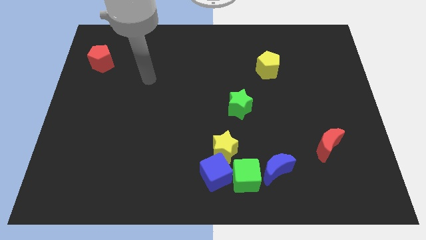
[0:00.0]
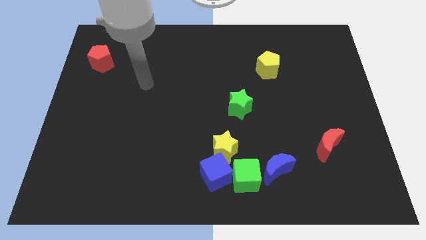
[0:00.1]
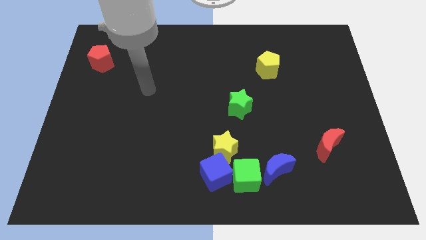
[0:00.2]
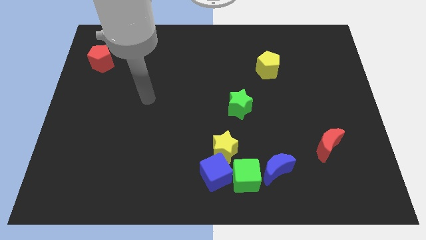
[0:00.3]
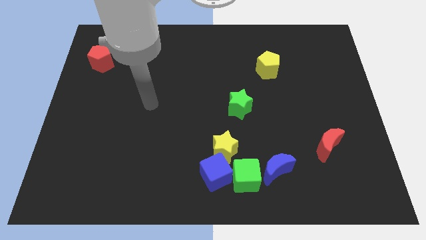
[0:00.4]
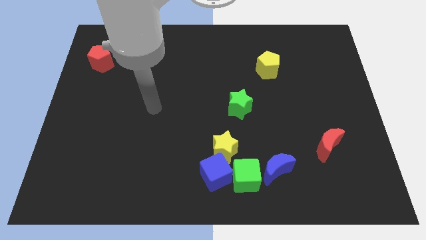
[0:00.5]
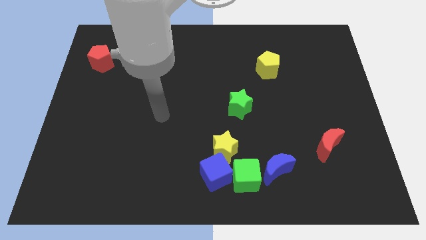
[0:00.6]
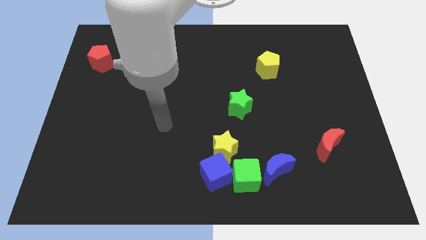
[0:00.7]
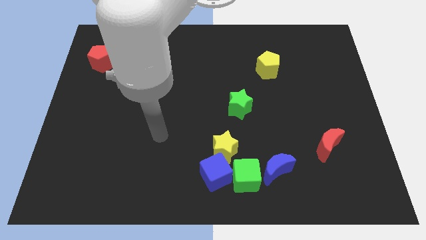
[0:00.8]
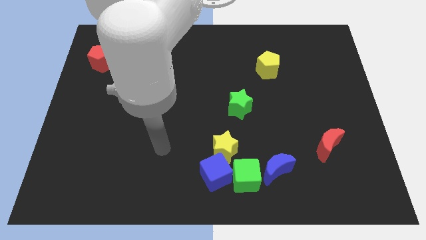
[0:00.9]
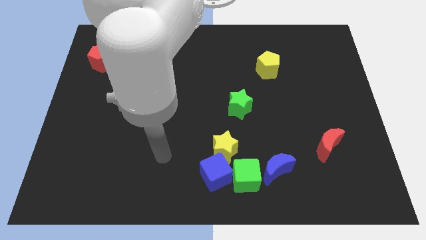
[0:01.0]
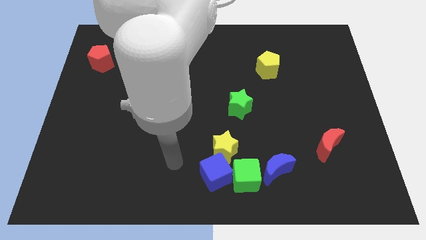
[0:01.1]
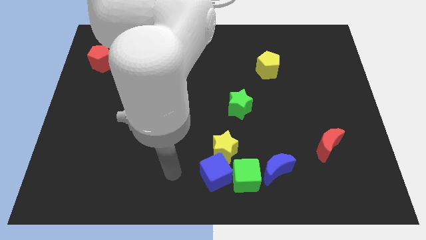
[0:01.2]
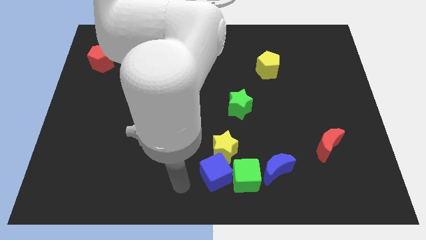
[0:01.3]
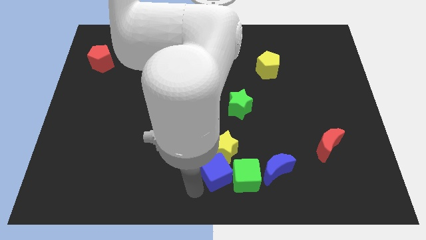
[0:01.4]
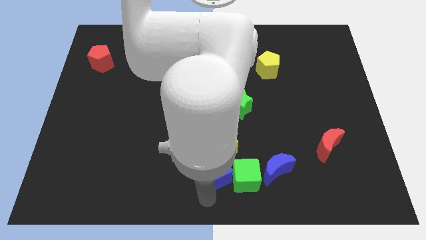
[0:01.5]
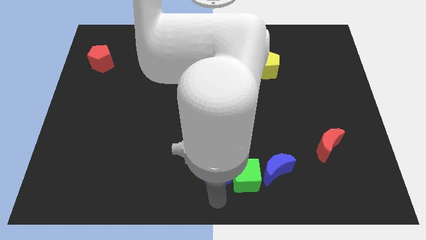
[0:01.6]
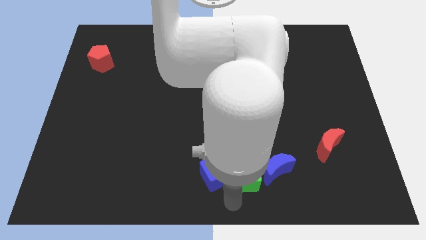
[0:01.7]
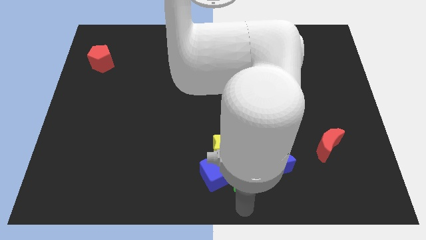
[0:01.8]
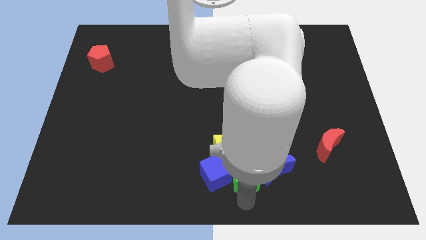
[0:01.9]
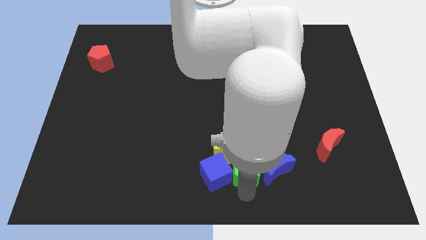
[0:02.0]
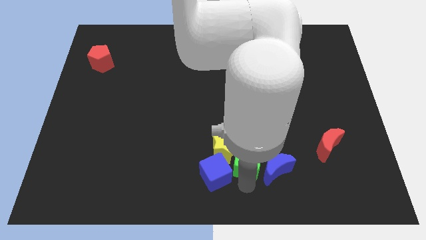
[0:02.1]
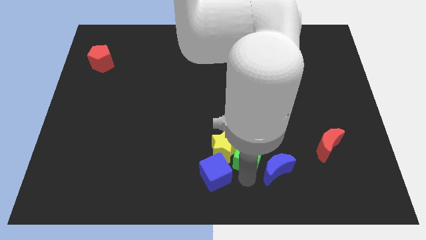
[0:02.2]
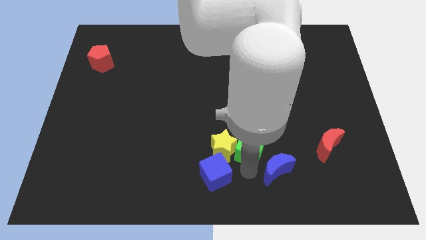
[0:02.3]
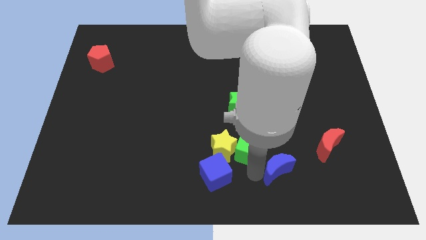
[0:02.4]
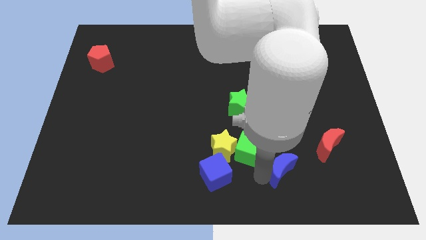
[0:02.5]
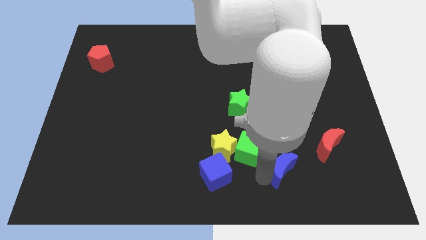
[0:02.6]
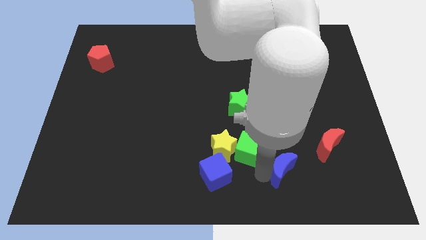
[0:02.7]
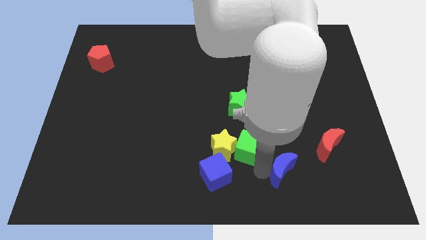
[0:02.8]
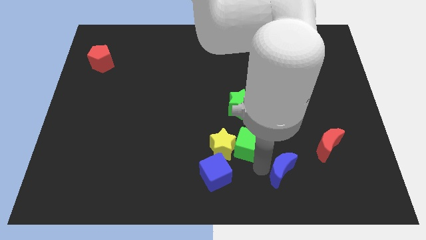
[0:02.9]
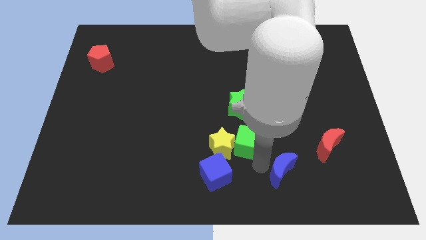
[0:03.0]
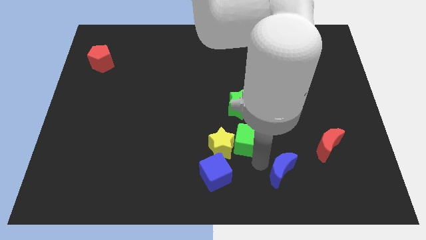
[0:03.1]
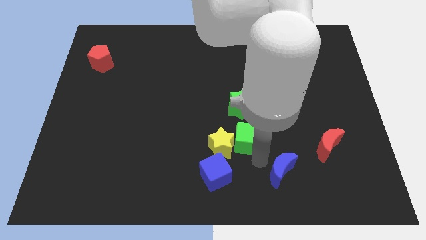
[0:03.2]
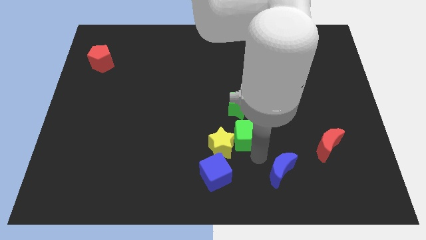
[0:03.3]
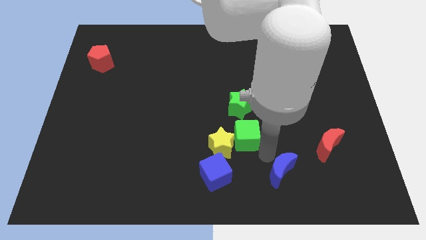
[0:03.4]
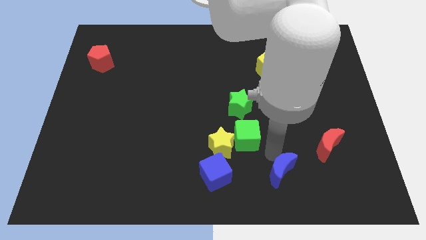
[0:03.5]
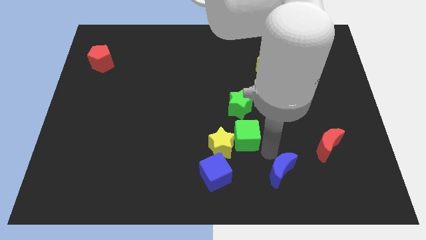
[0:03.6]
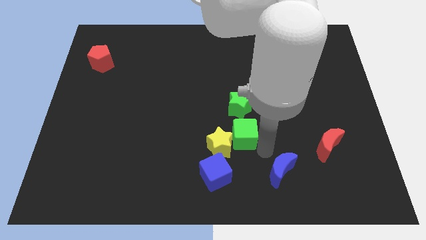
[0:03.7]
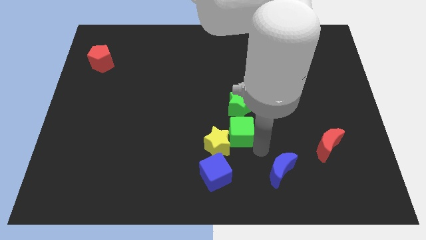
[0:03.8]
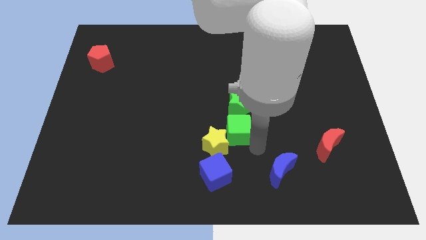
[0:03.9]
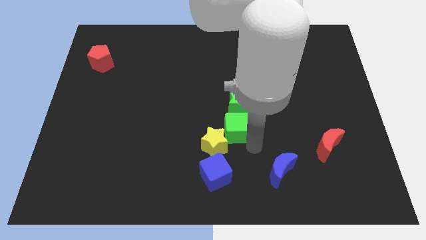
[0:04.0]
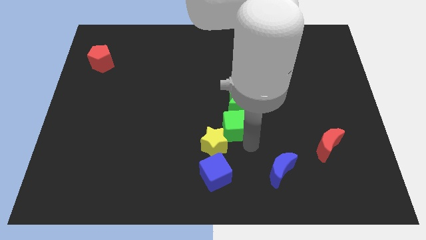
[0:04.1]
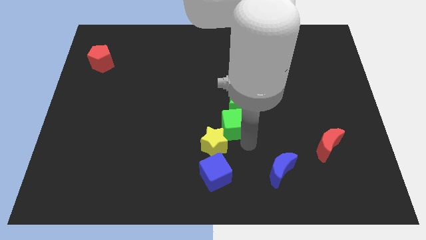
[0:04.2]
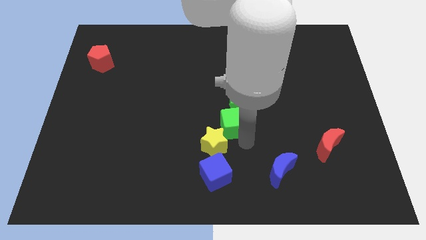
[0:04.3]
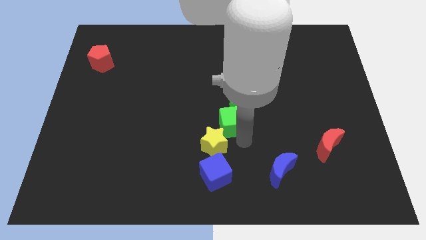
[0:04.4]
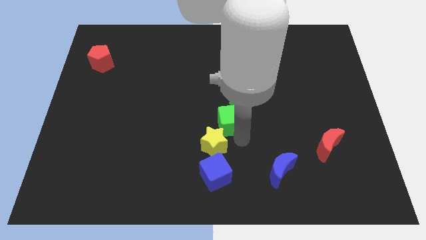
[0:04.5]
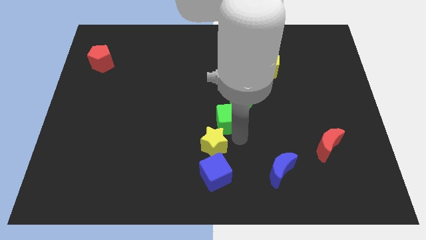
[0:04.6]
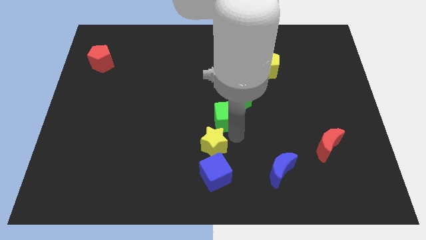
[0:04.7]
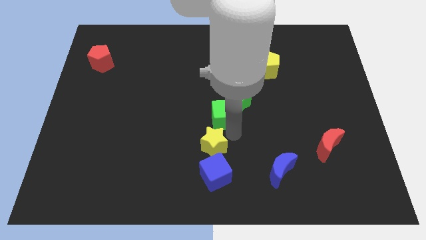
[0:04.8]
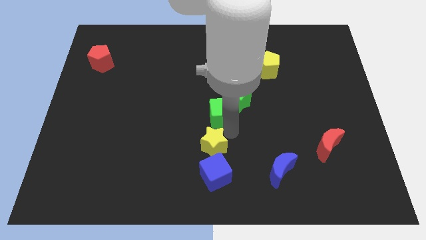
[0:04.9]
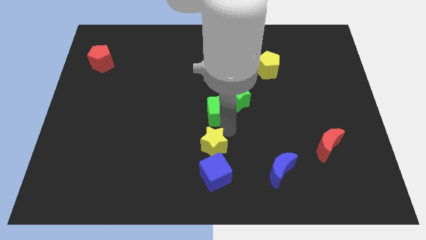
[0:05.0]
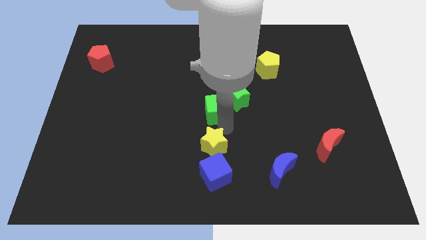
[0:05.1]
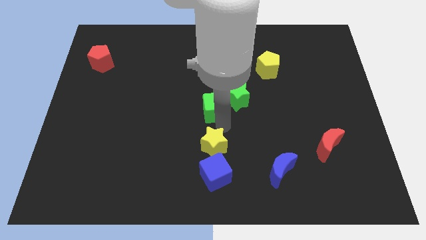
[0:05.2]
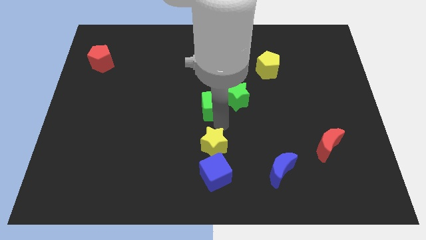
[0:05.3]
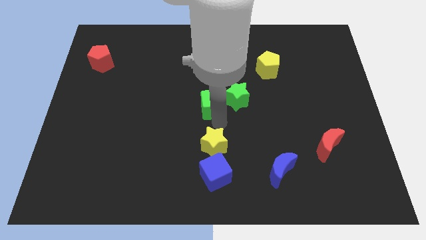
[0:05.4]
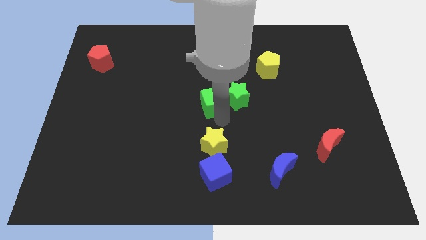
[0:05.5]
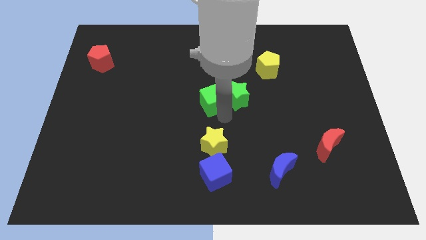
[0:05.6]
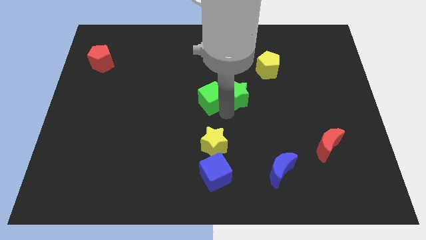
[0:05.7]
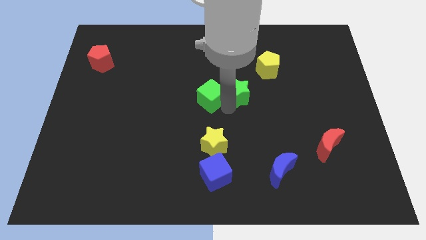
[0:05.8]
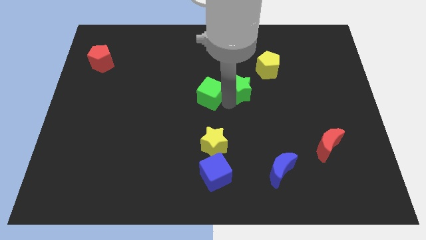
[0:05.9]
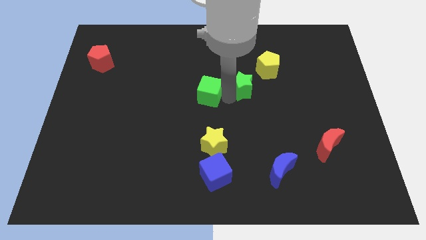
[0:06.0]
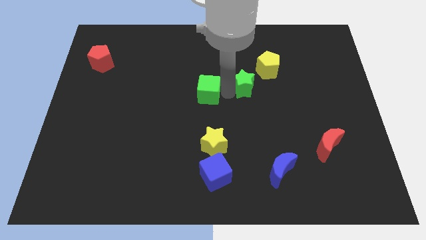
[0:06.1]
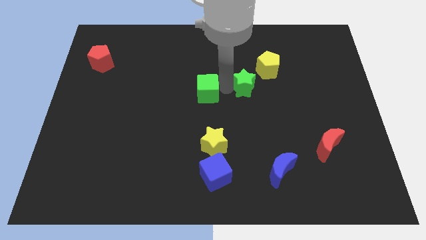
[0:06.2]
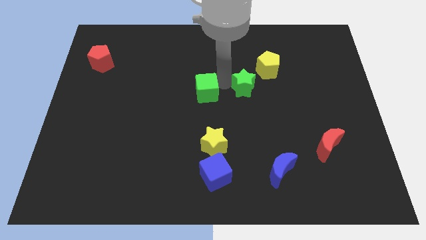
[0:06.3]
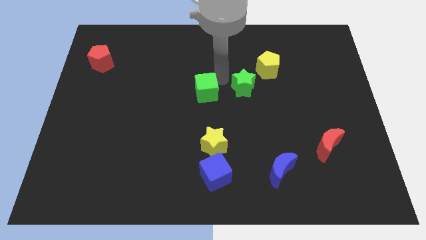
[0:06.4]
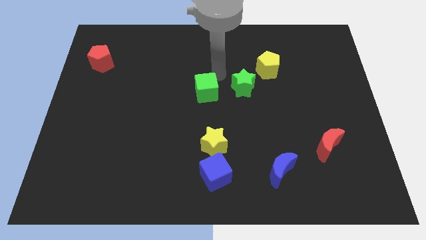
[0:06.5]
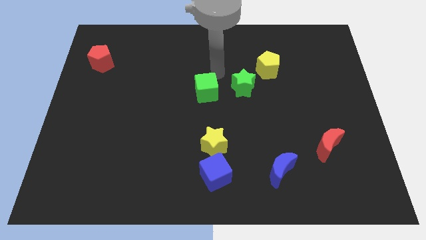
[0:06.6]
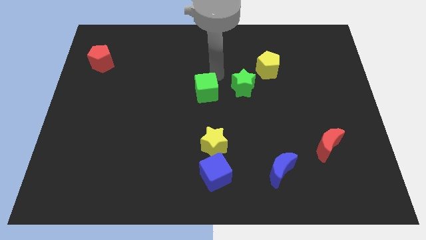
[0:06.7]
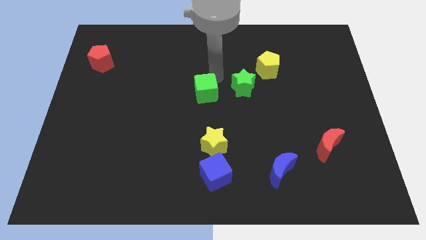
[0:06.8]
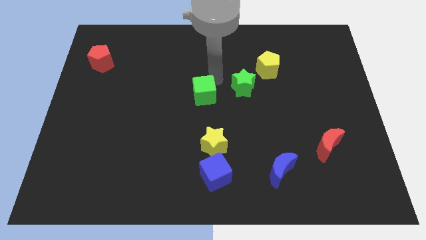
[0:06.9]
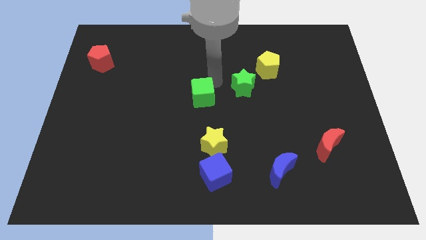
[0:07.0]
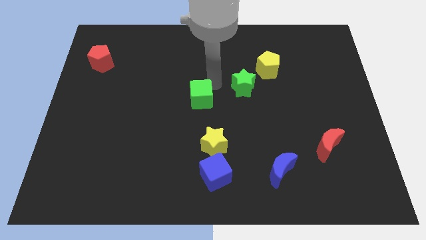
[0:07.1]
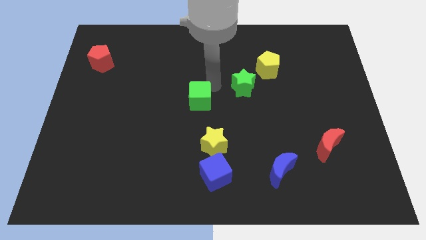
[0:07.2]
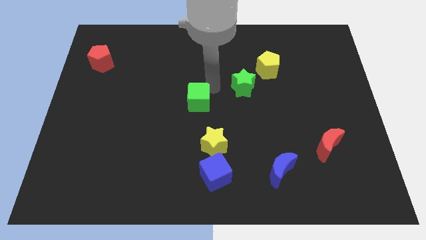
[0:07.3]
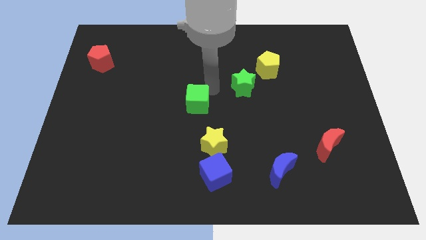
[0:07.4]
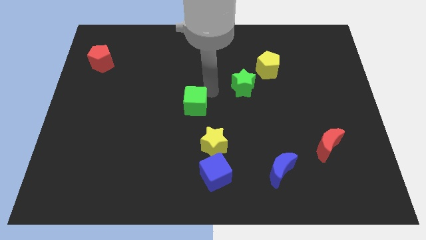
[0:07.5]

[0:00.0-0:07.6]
push the green cube up and to the left

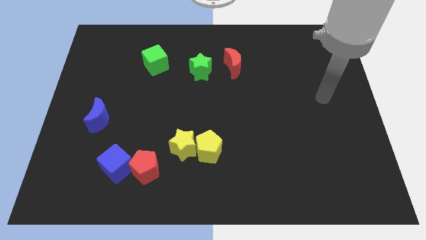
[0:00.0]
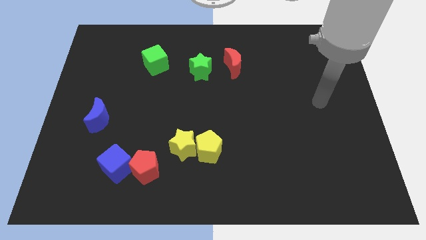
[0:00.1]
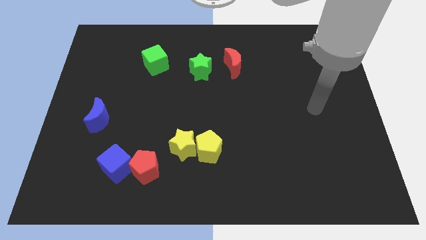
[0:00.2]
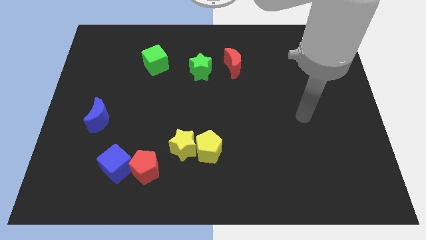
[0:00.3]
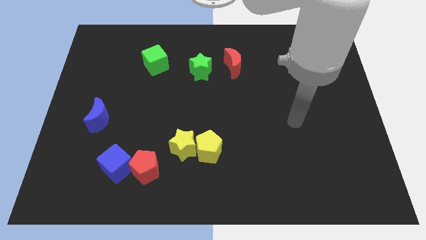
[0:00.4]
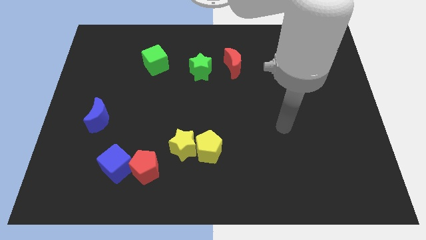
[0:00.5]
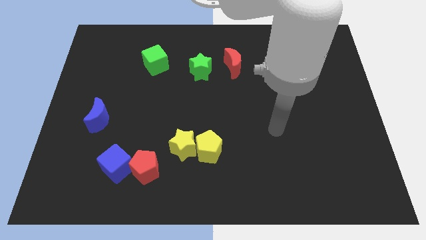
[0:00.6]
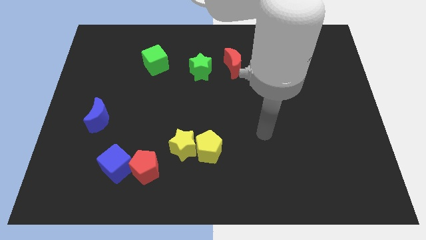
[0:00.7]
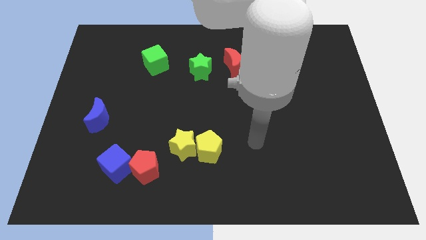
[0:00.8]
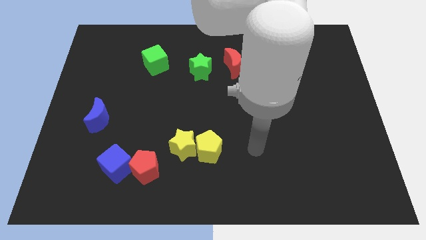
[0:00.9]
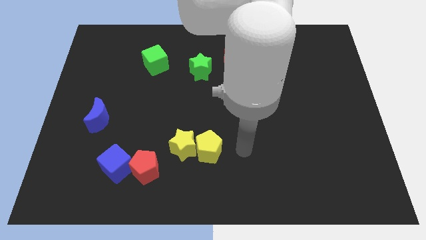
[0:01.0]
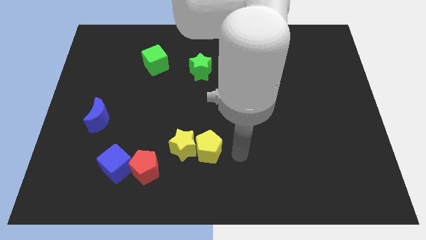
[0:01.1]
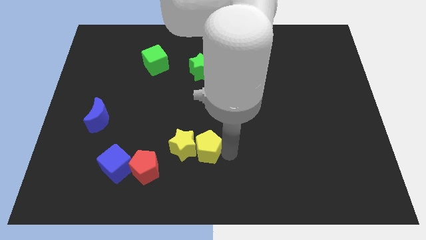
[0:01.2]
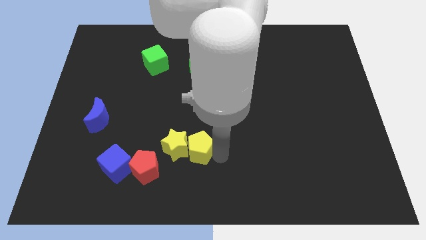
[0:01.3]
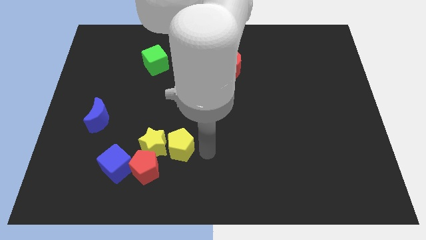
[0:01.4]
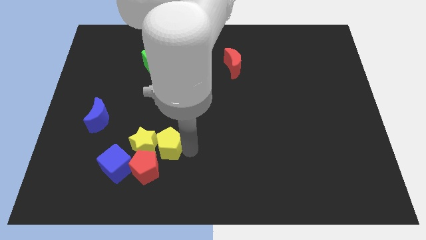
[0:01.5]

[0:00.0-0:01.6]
slightly slide the yellow star to the left
